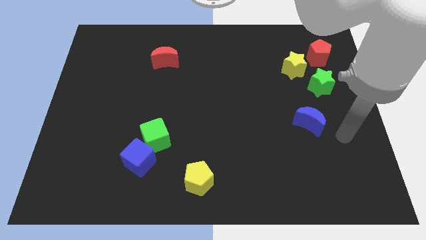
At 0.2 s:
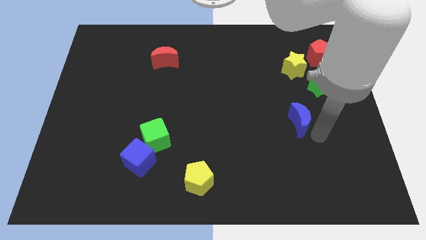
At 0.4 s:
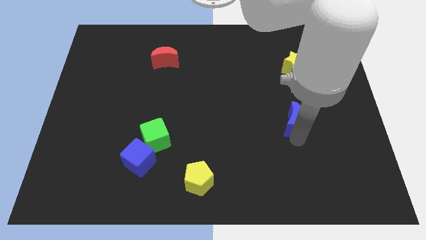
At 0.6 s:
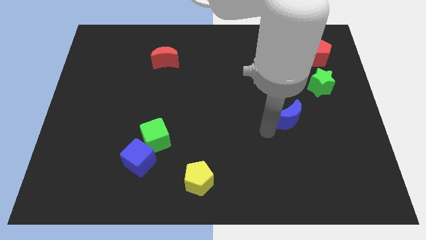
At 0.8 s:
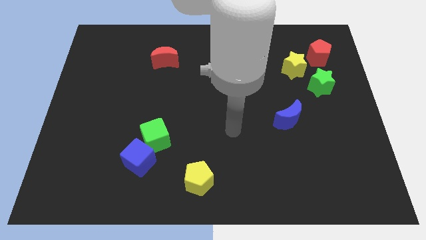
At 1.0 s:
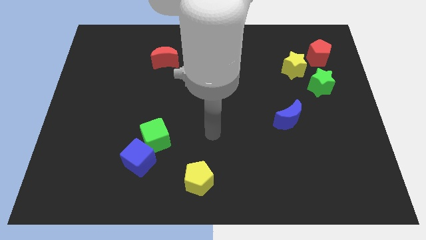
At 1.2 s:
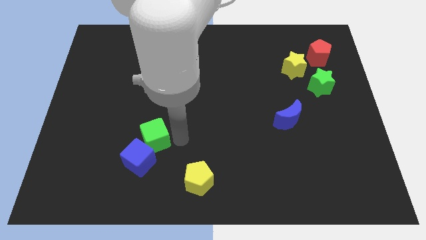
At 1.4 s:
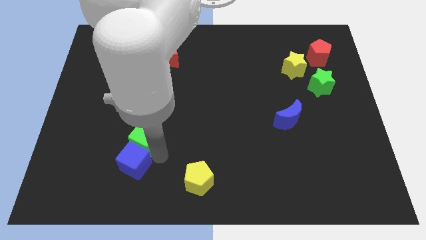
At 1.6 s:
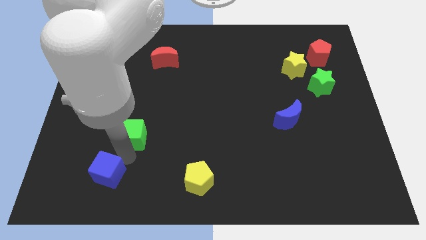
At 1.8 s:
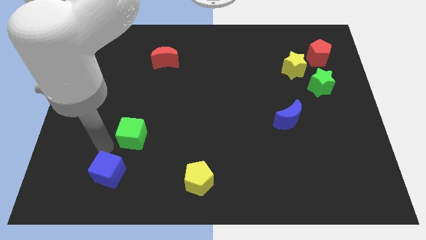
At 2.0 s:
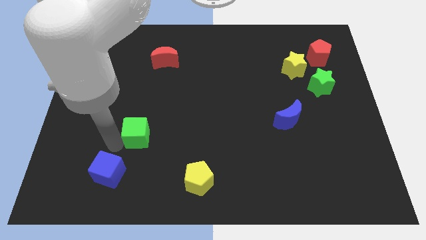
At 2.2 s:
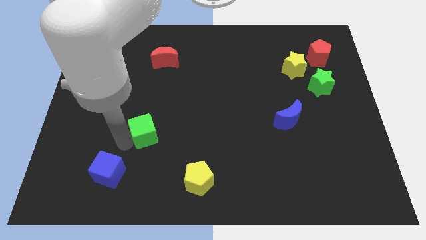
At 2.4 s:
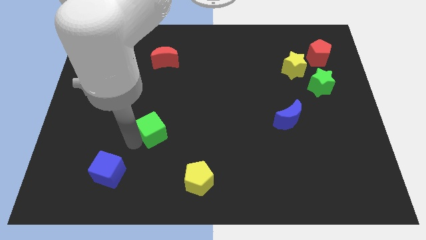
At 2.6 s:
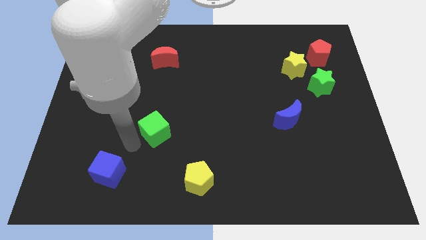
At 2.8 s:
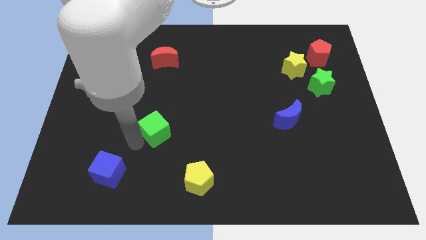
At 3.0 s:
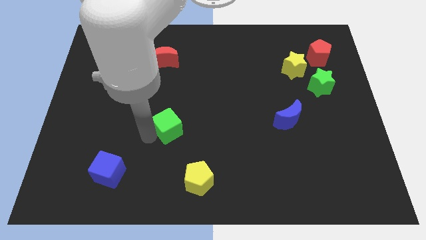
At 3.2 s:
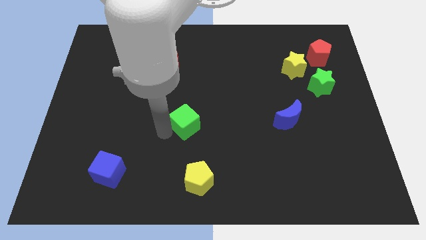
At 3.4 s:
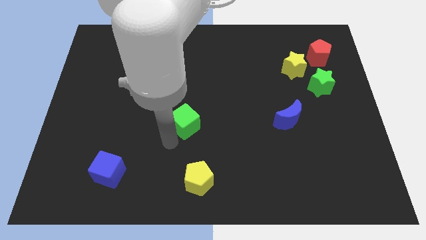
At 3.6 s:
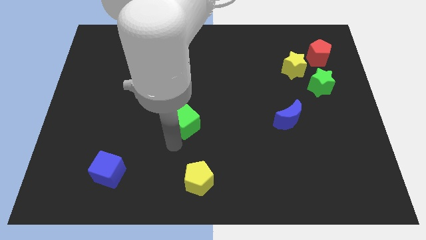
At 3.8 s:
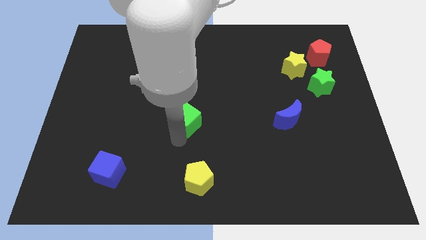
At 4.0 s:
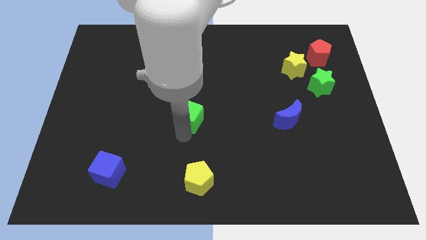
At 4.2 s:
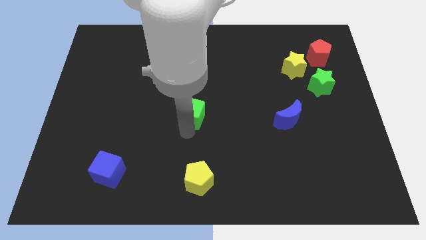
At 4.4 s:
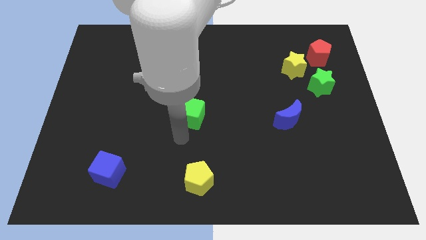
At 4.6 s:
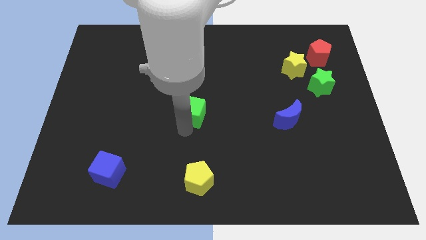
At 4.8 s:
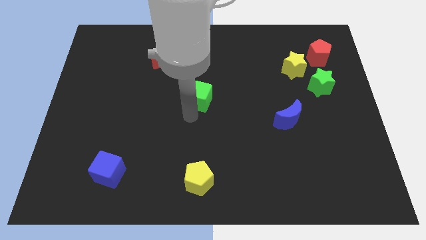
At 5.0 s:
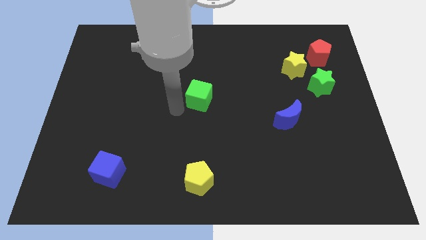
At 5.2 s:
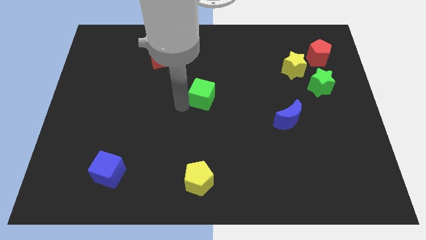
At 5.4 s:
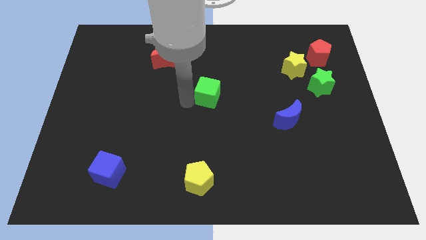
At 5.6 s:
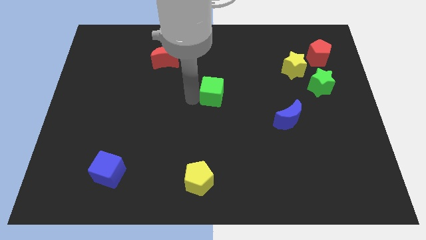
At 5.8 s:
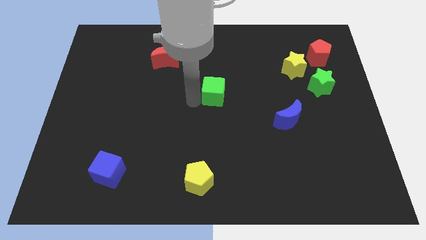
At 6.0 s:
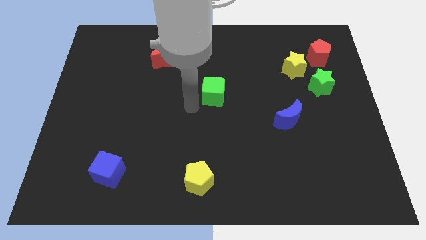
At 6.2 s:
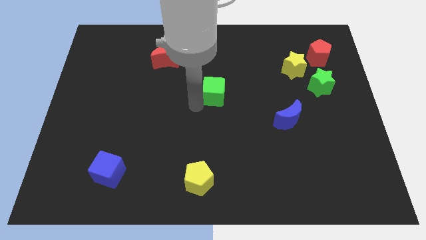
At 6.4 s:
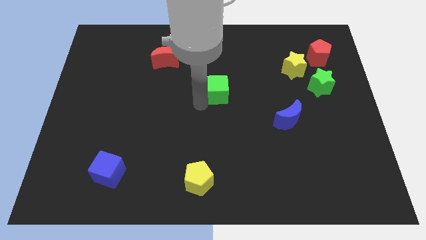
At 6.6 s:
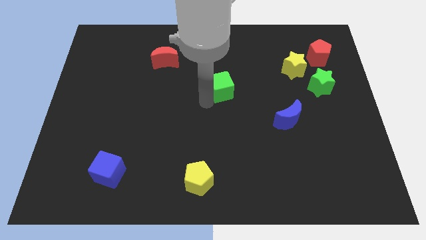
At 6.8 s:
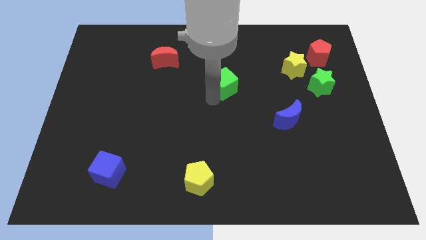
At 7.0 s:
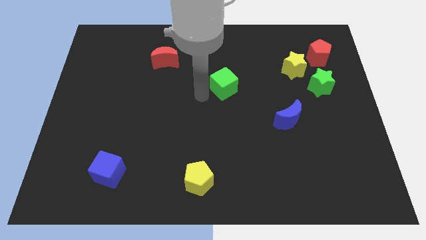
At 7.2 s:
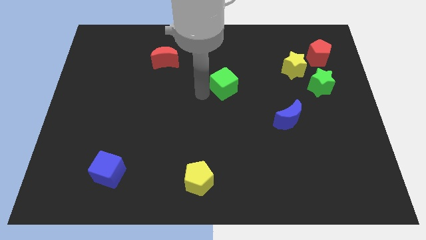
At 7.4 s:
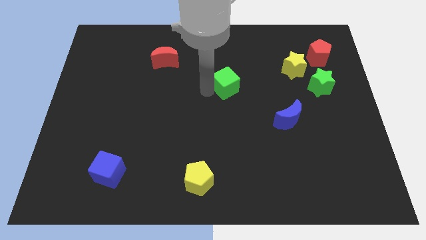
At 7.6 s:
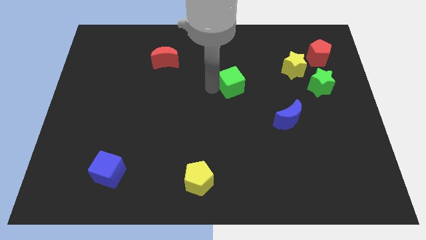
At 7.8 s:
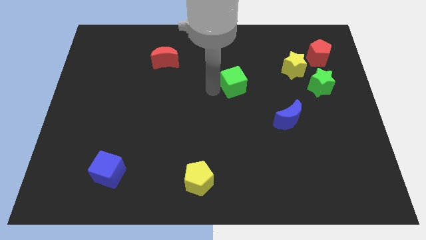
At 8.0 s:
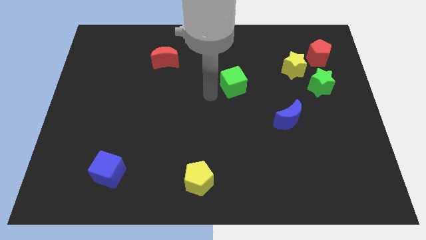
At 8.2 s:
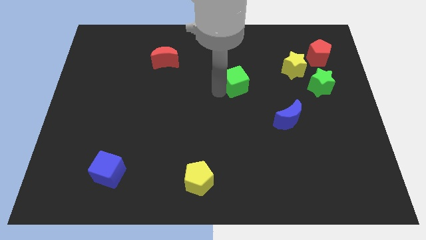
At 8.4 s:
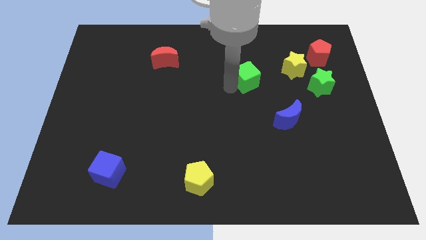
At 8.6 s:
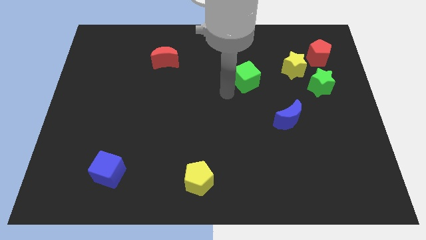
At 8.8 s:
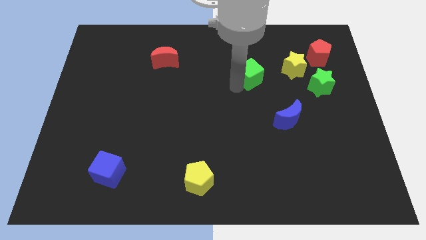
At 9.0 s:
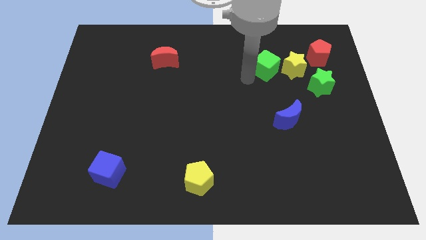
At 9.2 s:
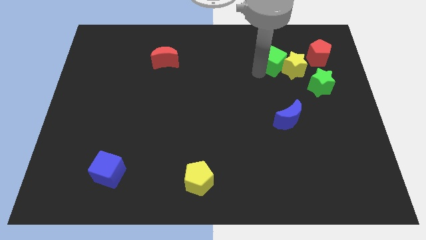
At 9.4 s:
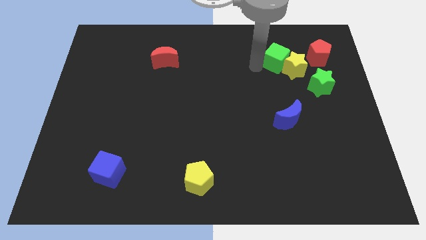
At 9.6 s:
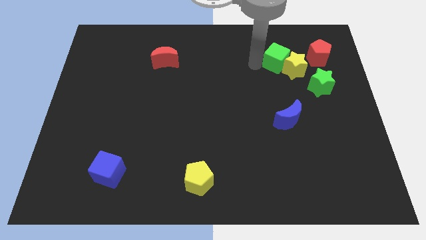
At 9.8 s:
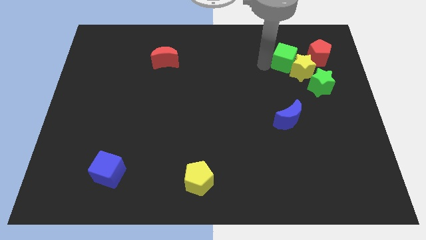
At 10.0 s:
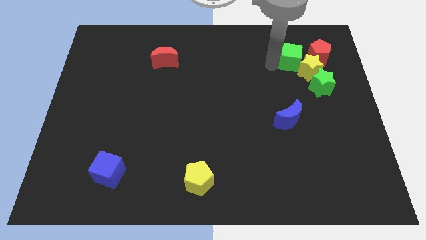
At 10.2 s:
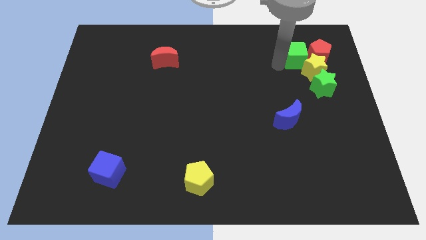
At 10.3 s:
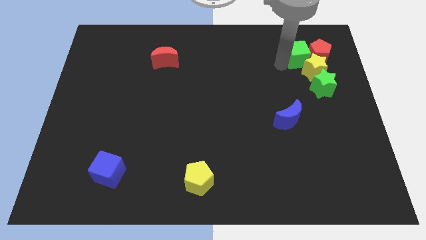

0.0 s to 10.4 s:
push the green cube towards the red pentagon

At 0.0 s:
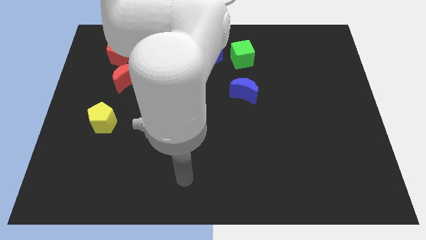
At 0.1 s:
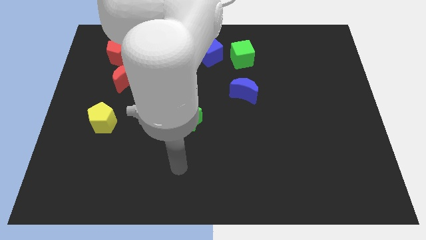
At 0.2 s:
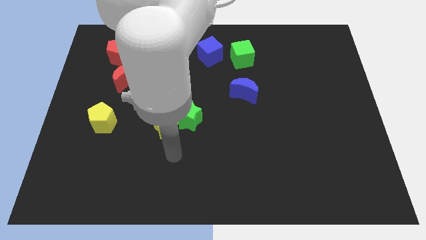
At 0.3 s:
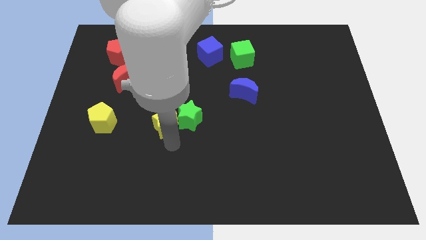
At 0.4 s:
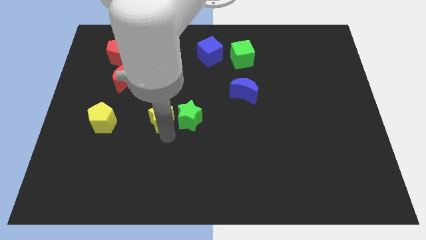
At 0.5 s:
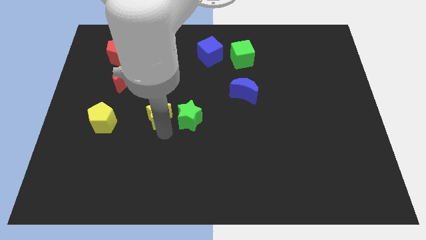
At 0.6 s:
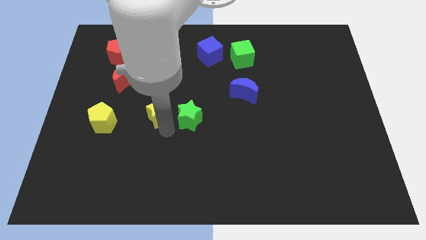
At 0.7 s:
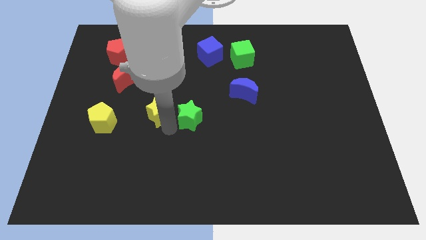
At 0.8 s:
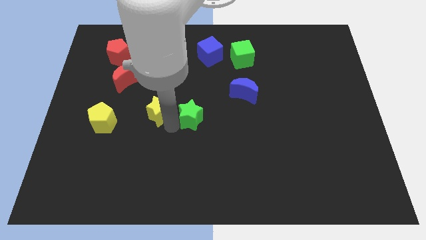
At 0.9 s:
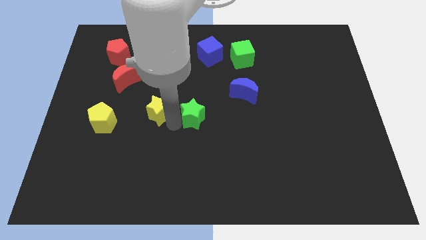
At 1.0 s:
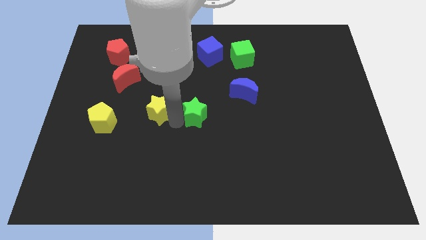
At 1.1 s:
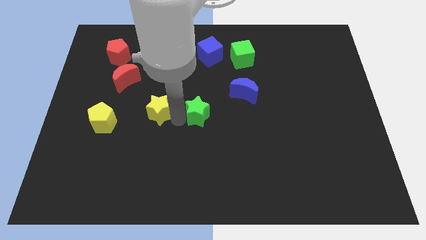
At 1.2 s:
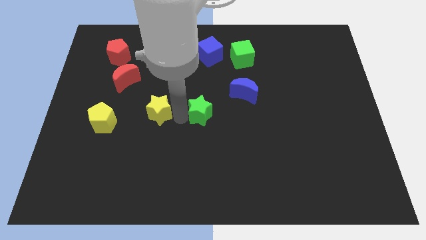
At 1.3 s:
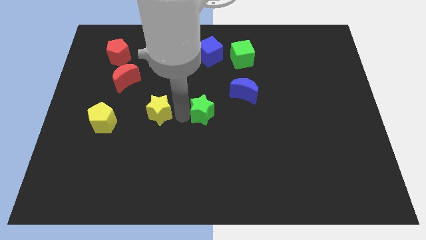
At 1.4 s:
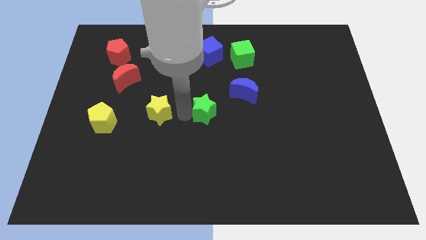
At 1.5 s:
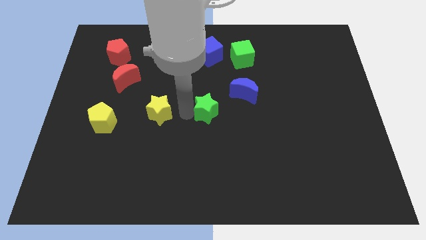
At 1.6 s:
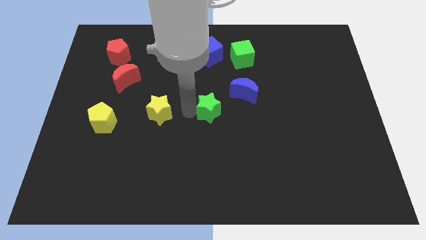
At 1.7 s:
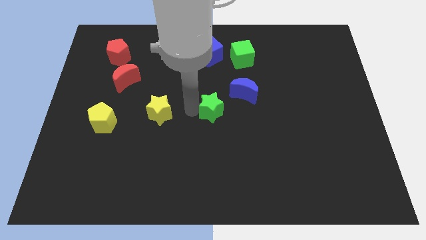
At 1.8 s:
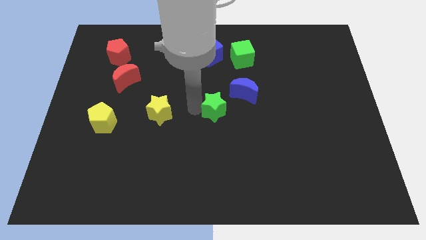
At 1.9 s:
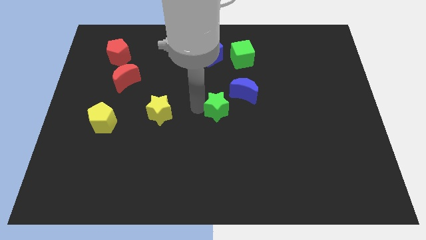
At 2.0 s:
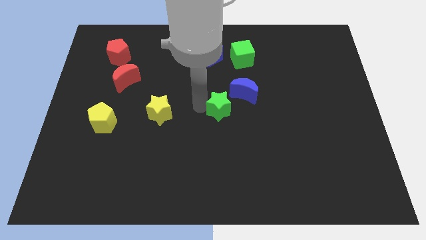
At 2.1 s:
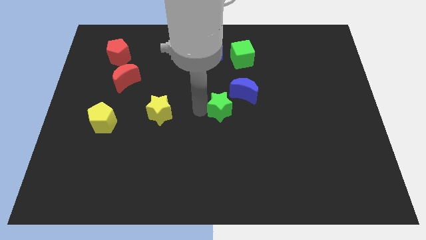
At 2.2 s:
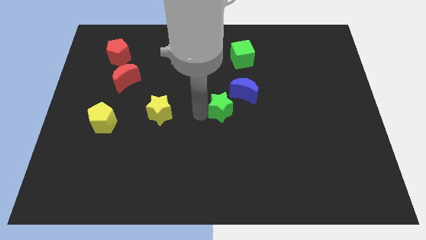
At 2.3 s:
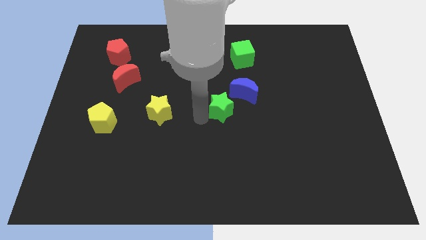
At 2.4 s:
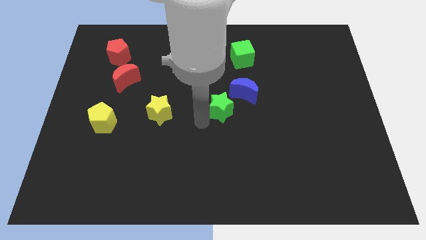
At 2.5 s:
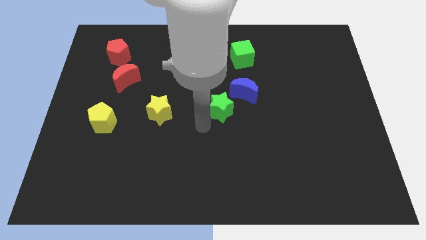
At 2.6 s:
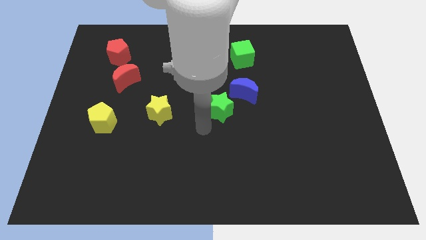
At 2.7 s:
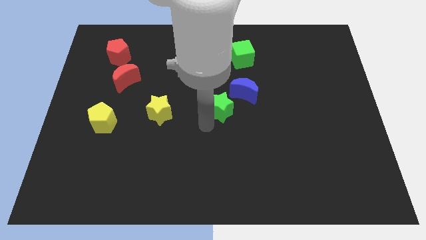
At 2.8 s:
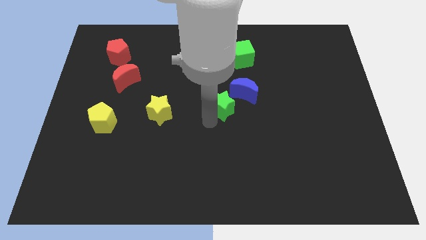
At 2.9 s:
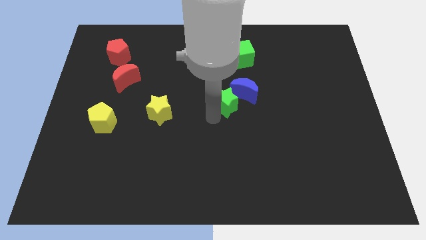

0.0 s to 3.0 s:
move the green star to the blue moon
